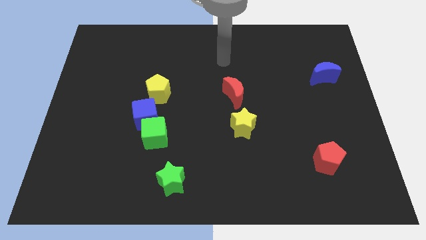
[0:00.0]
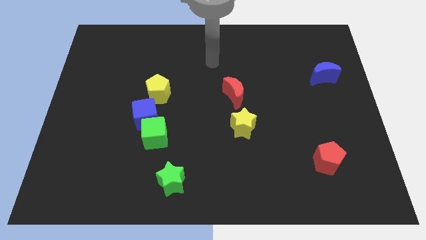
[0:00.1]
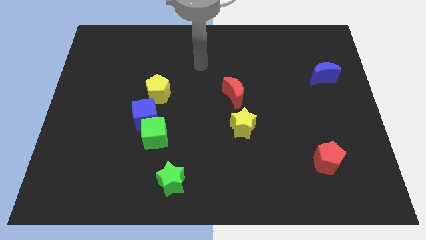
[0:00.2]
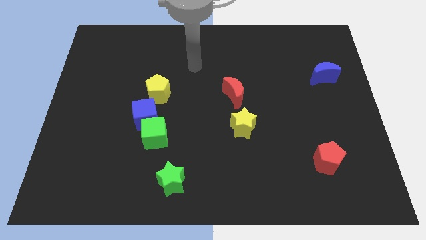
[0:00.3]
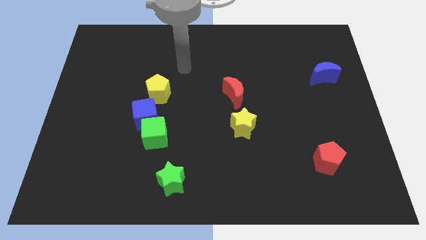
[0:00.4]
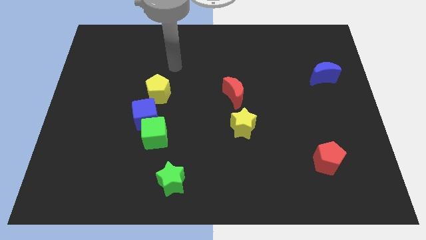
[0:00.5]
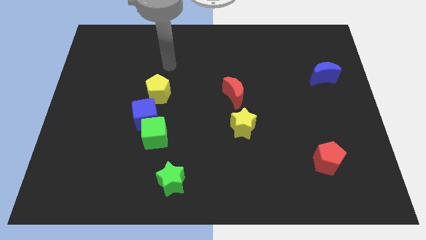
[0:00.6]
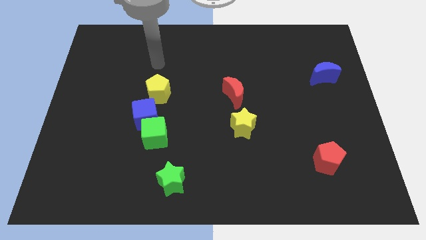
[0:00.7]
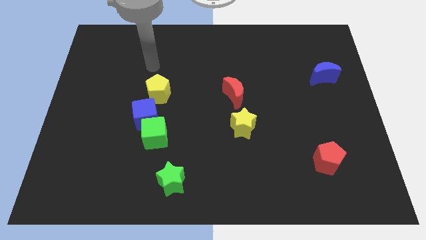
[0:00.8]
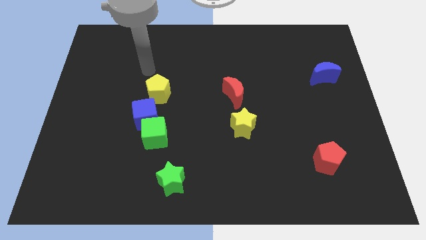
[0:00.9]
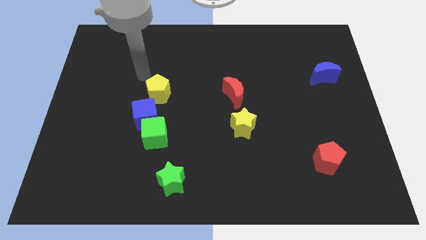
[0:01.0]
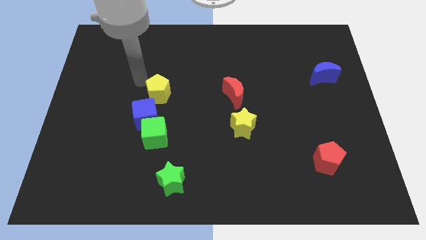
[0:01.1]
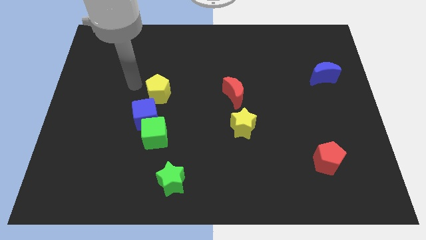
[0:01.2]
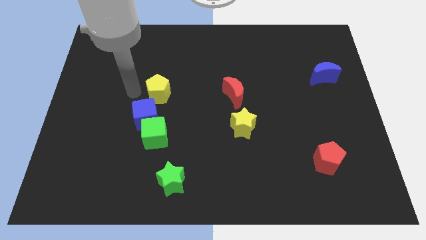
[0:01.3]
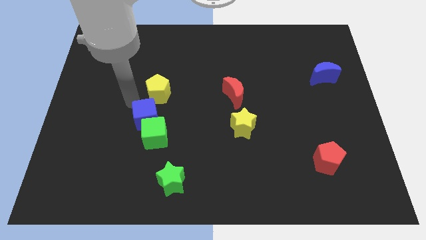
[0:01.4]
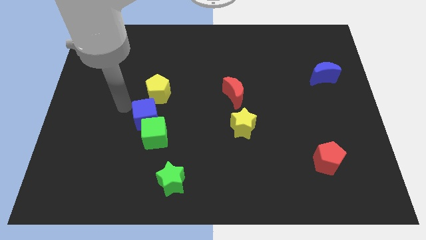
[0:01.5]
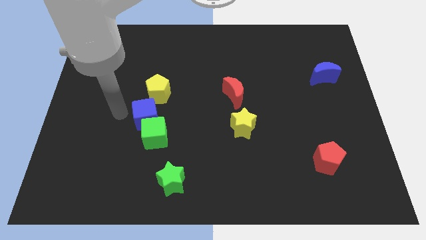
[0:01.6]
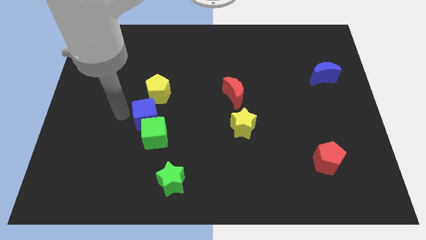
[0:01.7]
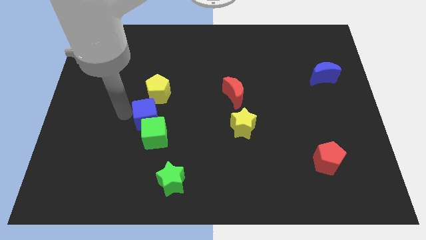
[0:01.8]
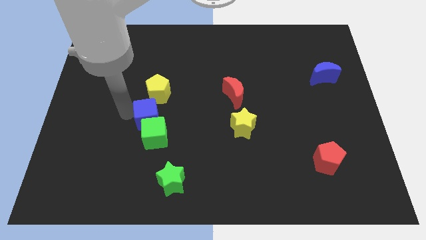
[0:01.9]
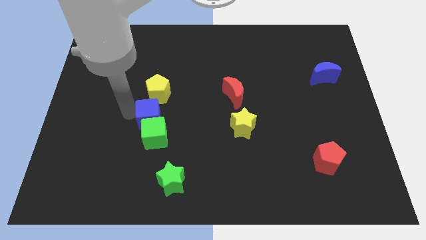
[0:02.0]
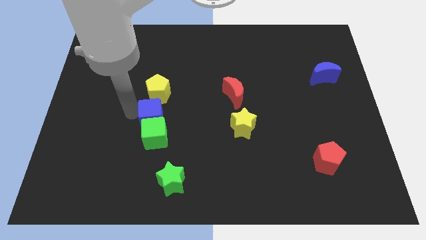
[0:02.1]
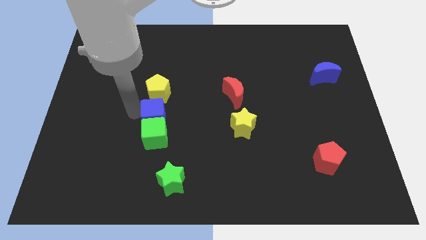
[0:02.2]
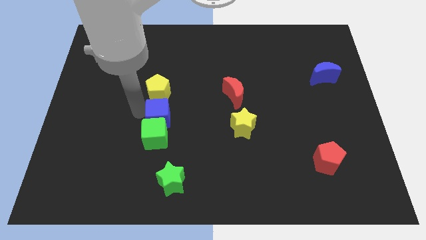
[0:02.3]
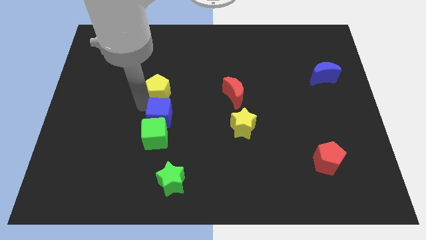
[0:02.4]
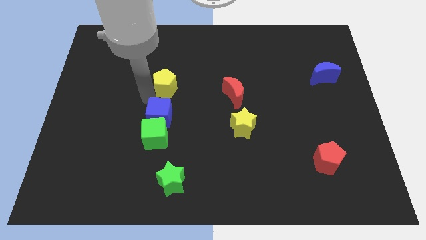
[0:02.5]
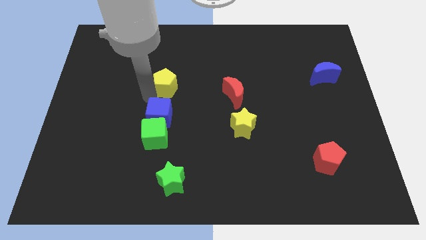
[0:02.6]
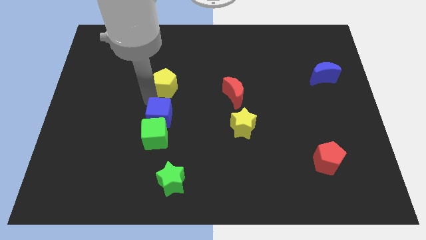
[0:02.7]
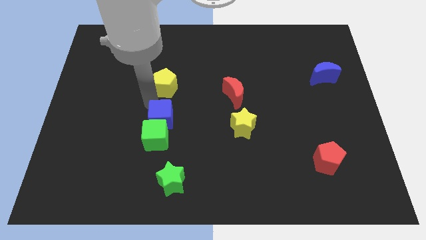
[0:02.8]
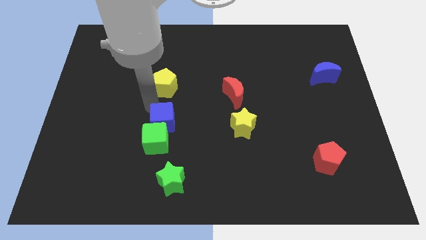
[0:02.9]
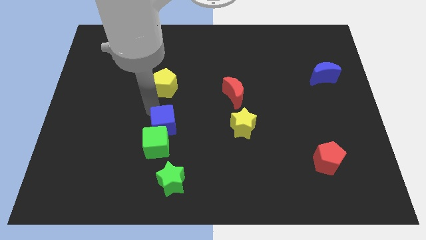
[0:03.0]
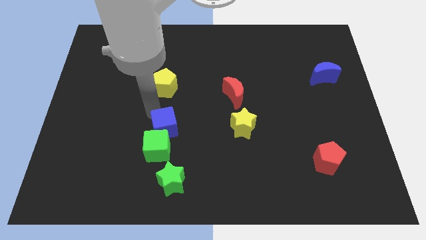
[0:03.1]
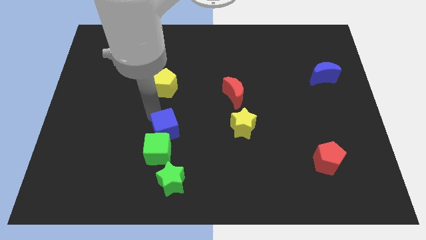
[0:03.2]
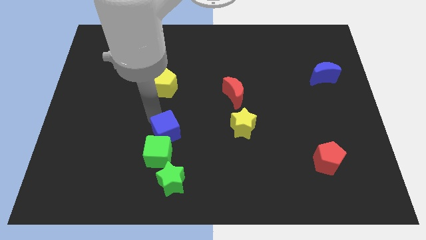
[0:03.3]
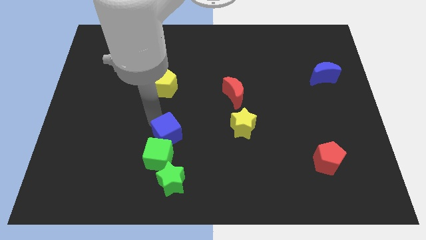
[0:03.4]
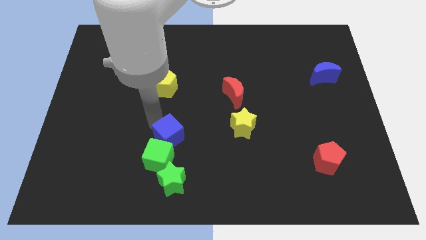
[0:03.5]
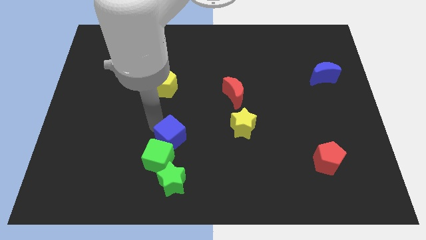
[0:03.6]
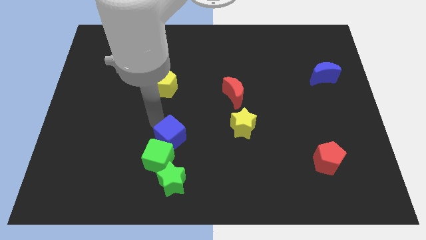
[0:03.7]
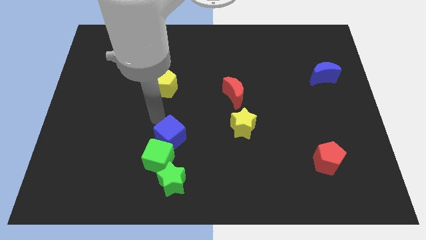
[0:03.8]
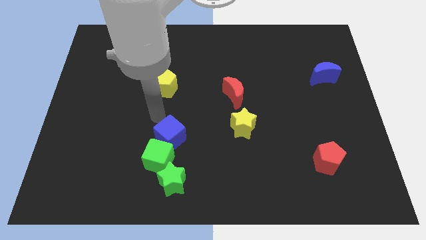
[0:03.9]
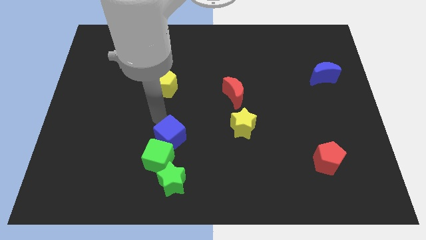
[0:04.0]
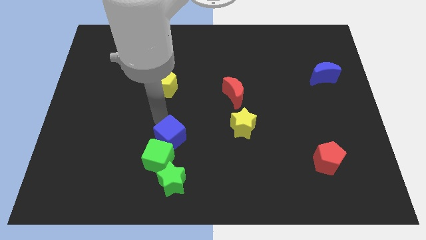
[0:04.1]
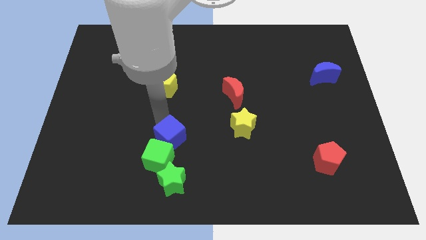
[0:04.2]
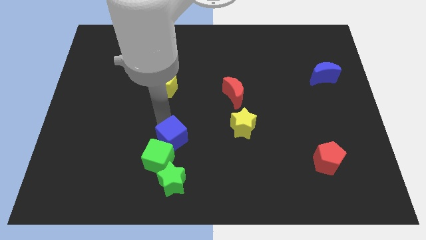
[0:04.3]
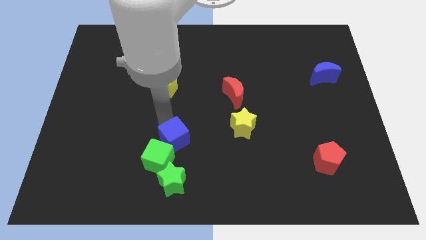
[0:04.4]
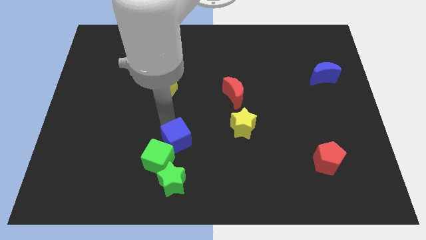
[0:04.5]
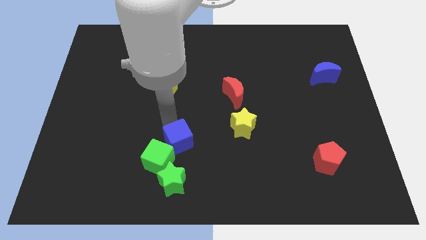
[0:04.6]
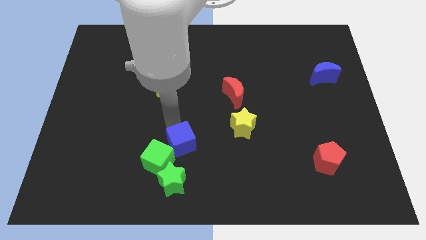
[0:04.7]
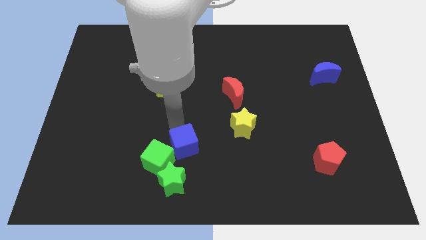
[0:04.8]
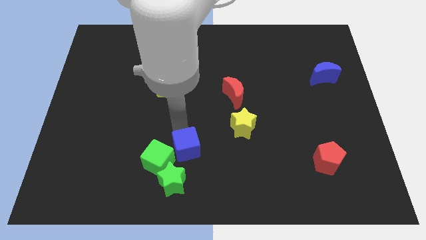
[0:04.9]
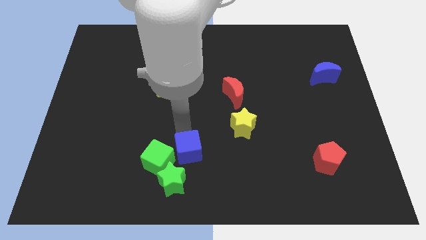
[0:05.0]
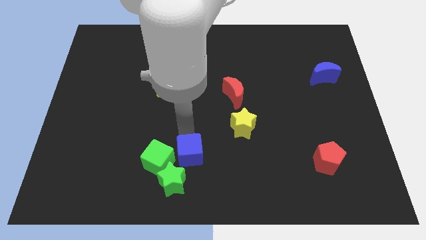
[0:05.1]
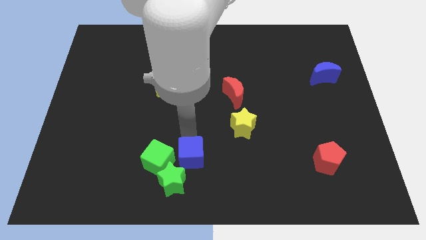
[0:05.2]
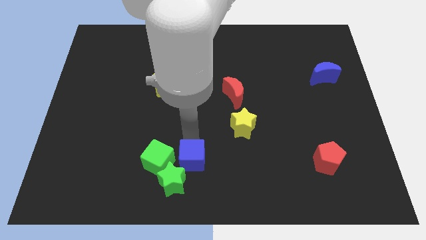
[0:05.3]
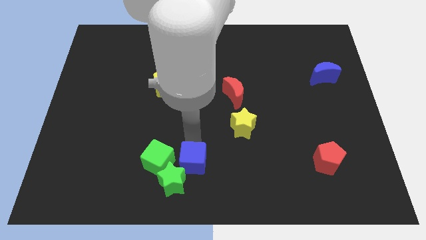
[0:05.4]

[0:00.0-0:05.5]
slide the blue cube next to the green star

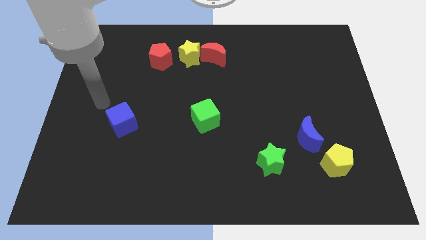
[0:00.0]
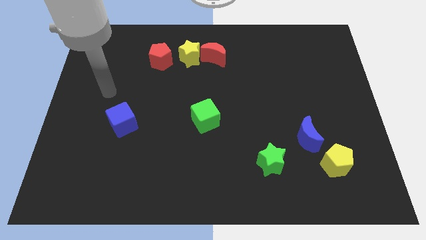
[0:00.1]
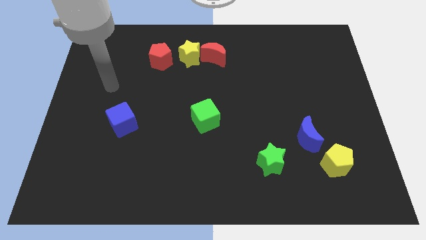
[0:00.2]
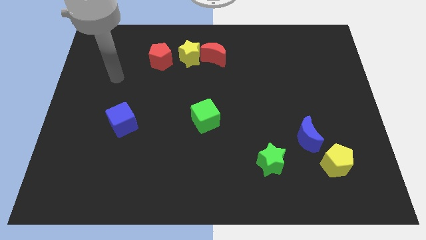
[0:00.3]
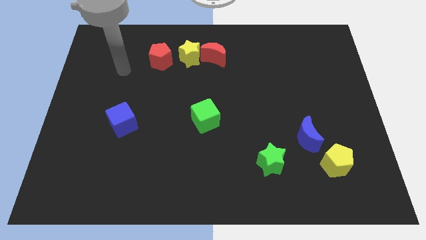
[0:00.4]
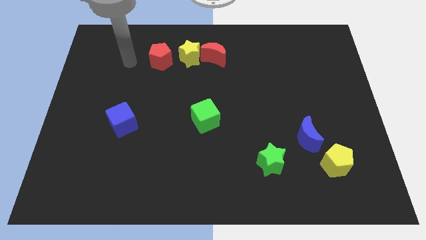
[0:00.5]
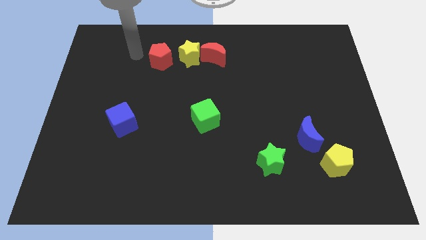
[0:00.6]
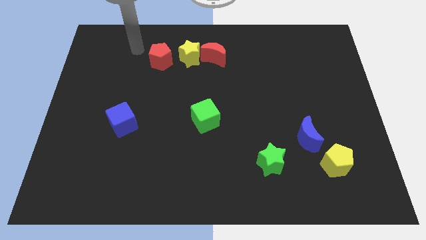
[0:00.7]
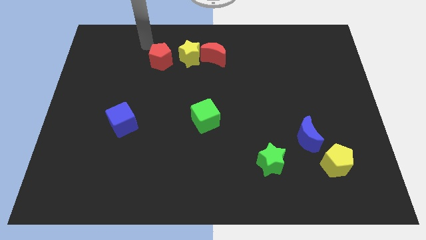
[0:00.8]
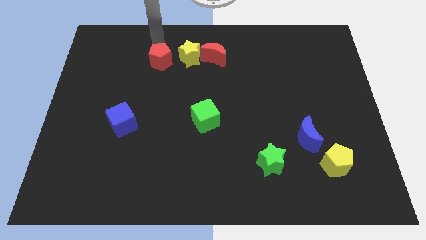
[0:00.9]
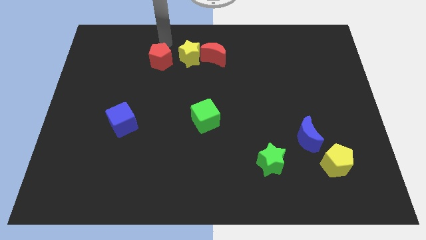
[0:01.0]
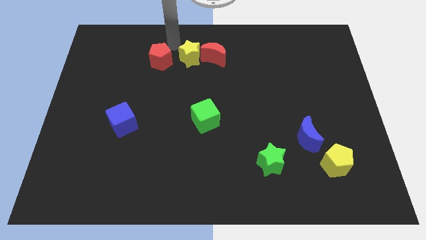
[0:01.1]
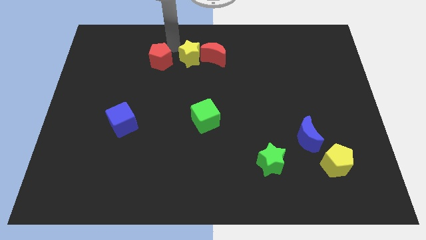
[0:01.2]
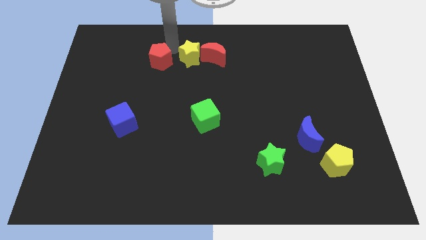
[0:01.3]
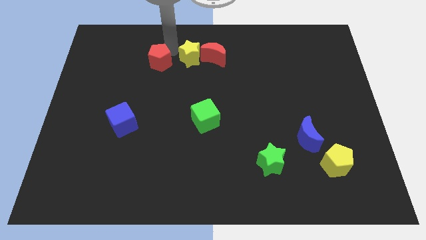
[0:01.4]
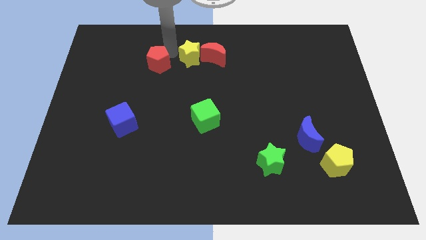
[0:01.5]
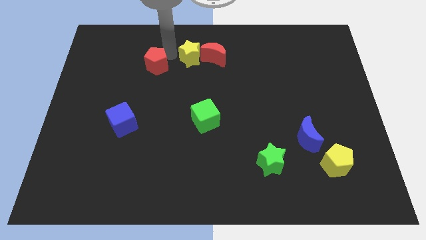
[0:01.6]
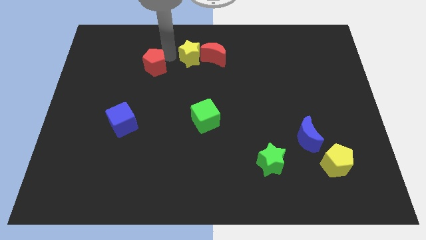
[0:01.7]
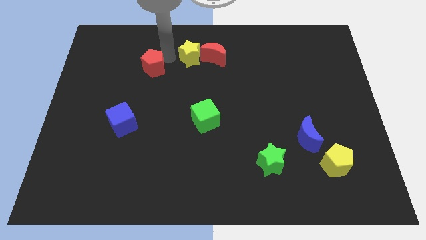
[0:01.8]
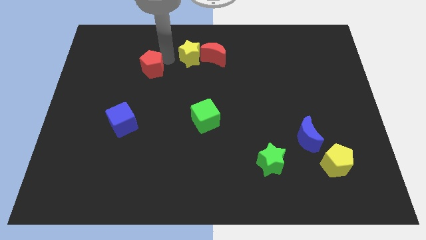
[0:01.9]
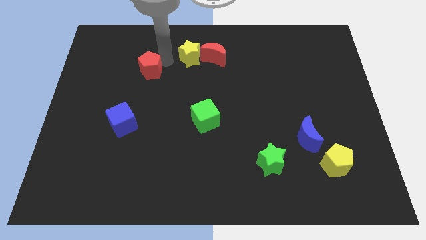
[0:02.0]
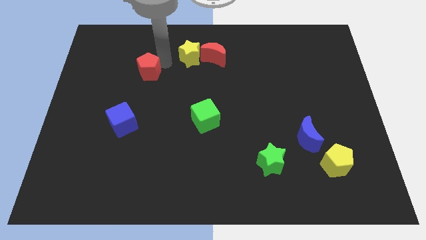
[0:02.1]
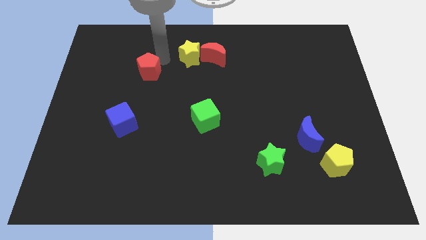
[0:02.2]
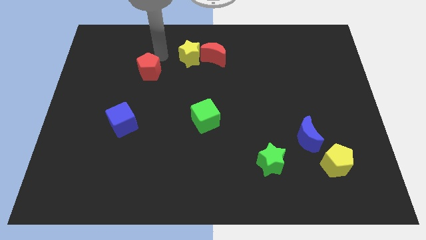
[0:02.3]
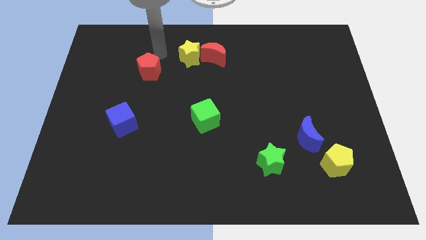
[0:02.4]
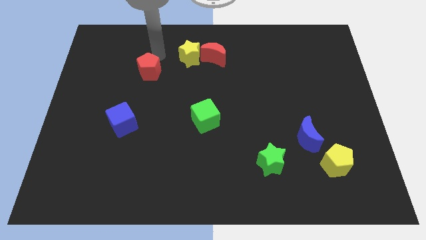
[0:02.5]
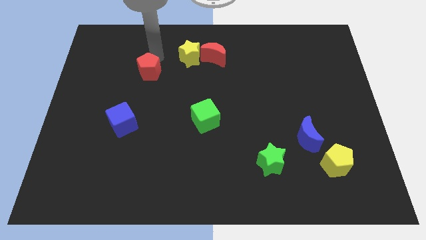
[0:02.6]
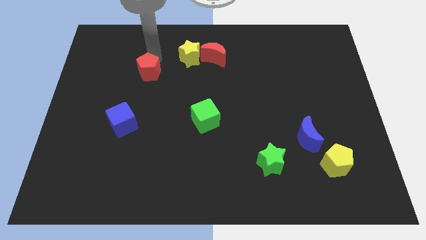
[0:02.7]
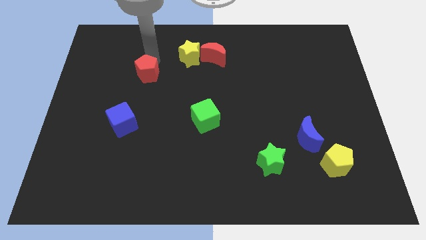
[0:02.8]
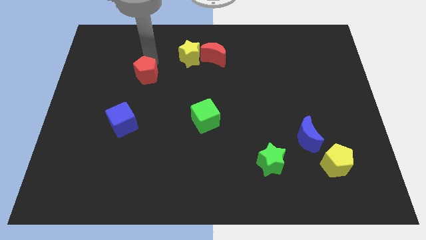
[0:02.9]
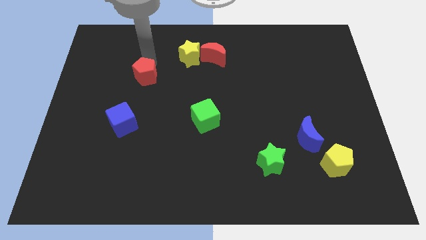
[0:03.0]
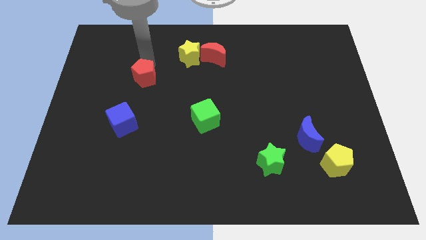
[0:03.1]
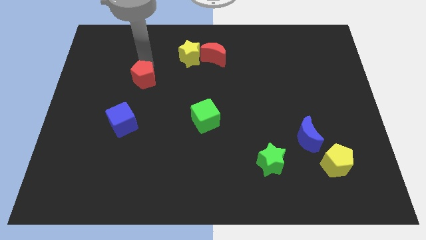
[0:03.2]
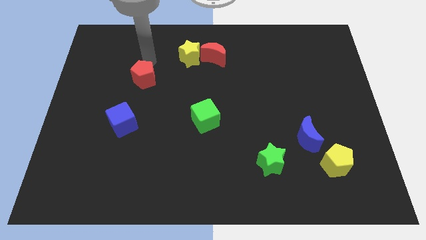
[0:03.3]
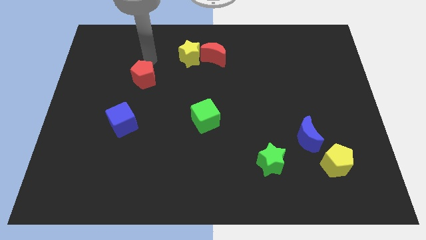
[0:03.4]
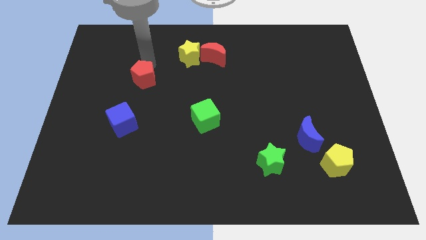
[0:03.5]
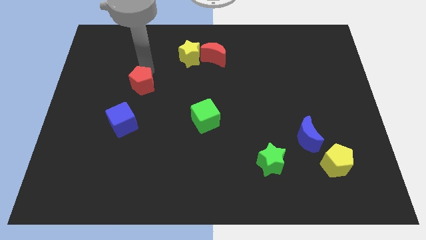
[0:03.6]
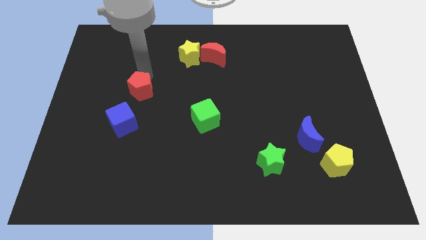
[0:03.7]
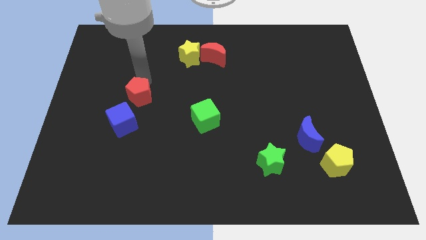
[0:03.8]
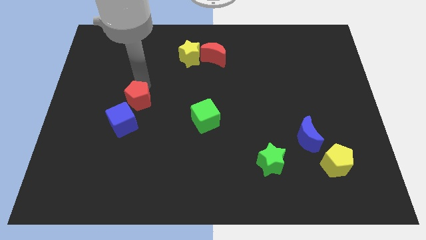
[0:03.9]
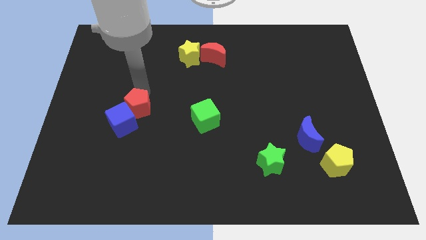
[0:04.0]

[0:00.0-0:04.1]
push the red pentagon to the blue cube
